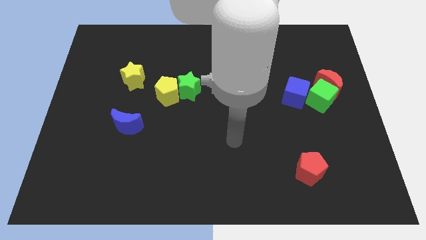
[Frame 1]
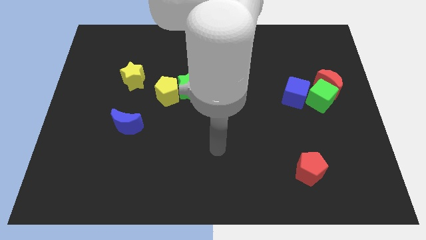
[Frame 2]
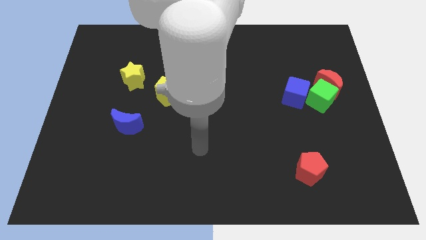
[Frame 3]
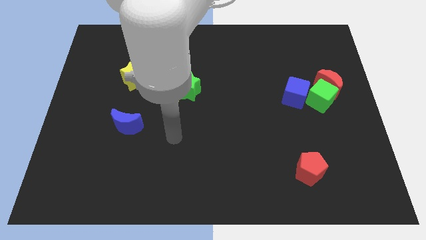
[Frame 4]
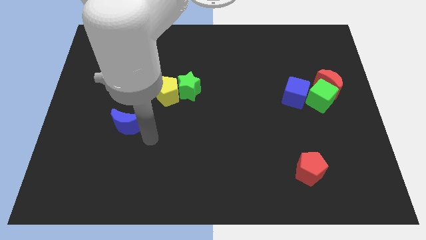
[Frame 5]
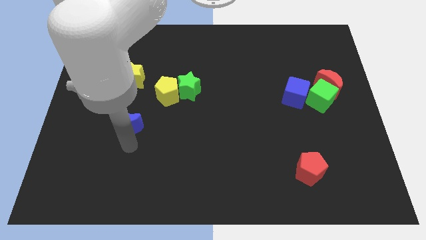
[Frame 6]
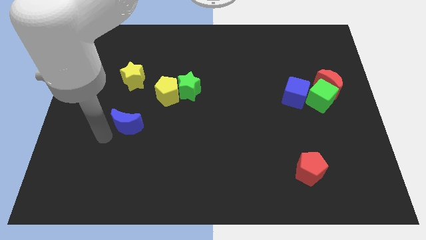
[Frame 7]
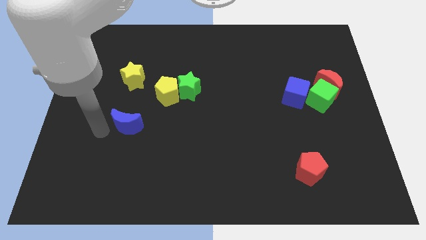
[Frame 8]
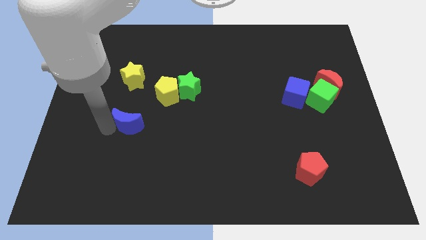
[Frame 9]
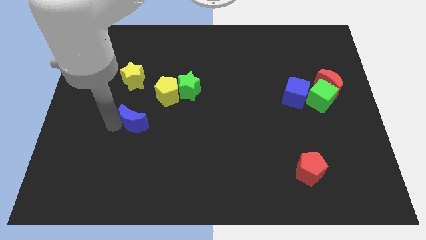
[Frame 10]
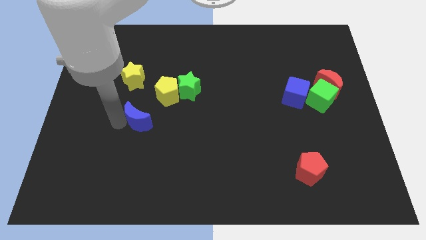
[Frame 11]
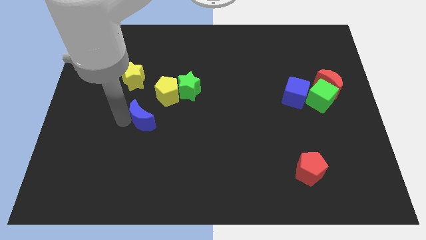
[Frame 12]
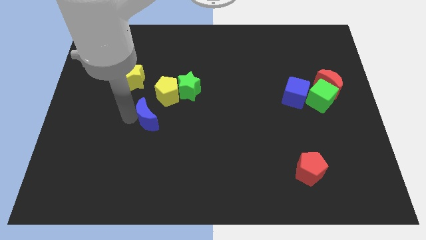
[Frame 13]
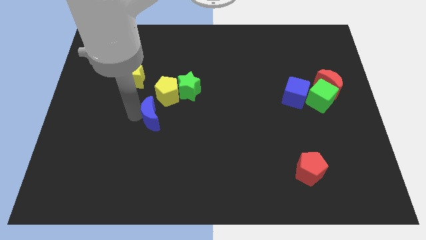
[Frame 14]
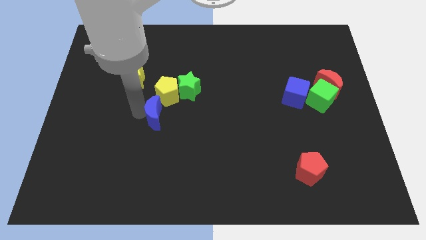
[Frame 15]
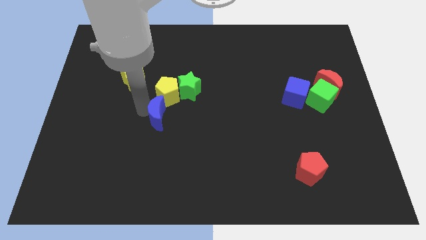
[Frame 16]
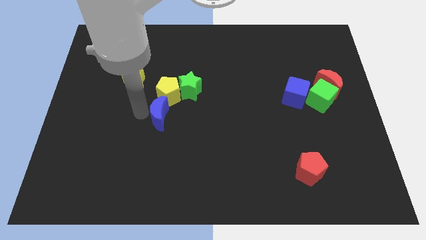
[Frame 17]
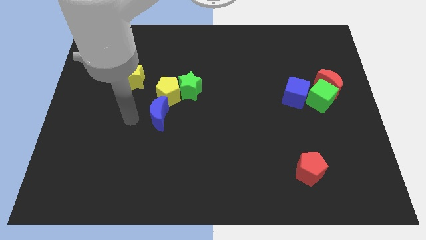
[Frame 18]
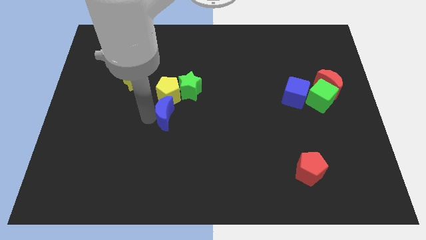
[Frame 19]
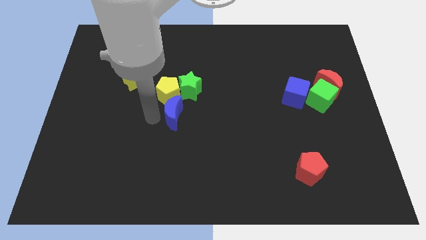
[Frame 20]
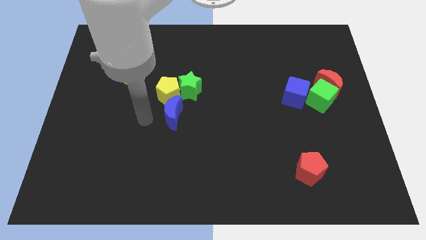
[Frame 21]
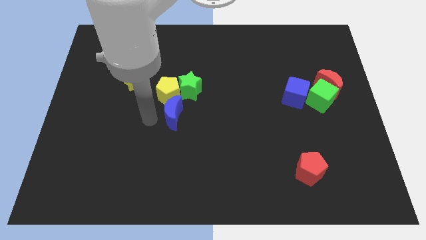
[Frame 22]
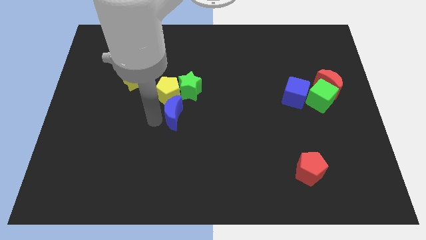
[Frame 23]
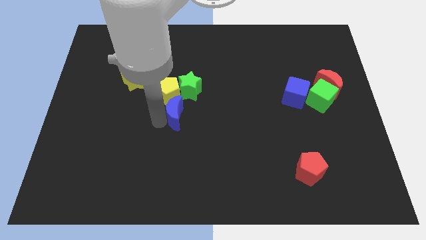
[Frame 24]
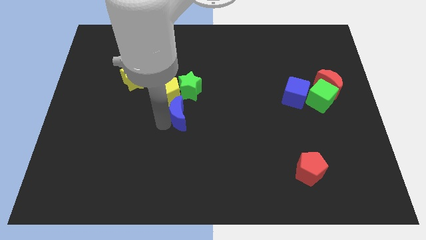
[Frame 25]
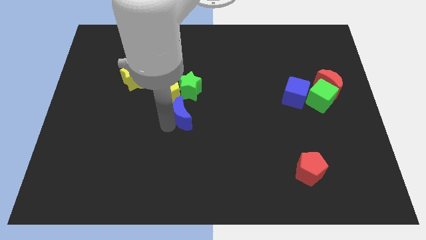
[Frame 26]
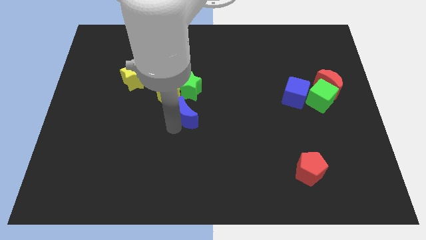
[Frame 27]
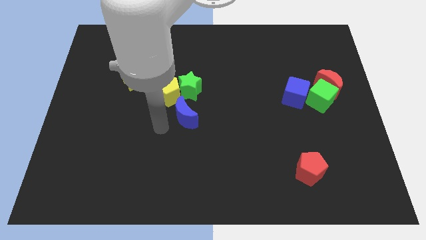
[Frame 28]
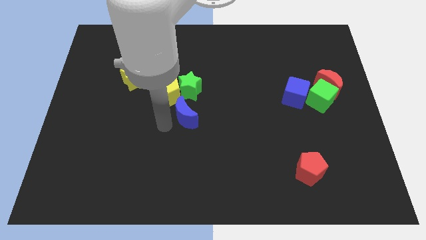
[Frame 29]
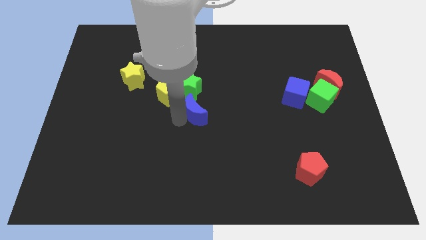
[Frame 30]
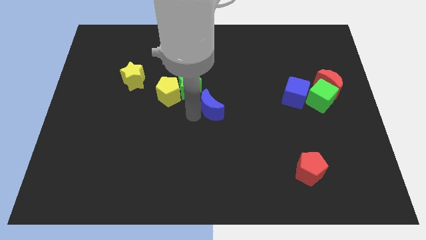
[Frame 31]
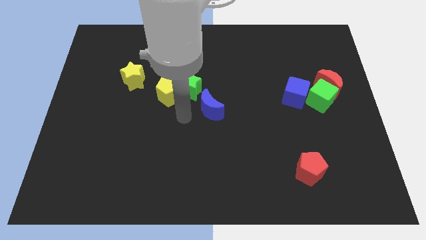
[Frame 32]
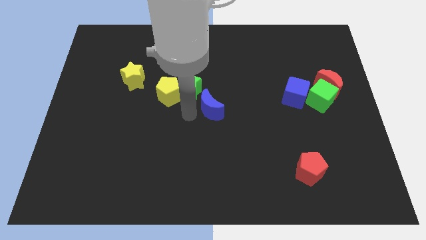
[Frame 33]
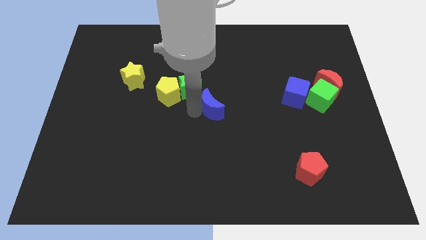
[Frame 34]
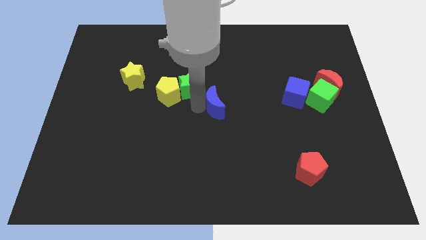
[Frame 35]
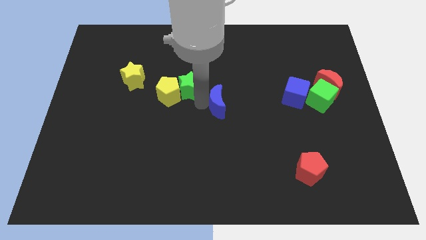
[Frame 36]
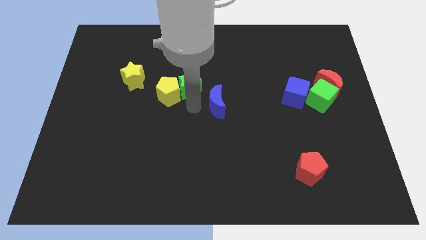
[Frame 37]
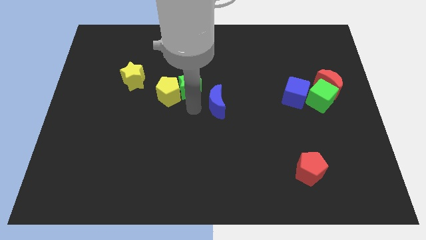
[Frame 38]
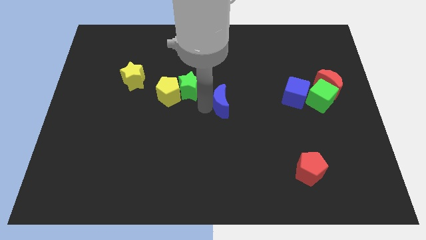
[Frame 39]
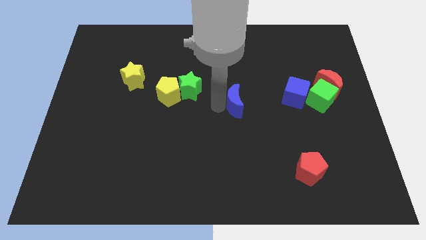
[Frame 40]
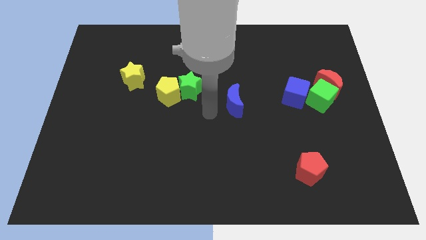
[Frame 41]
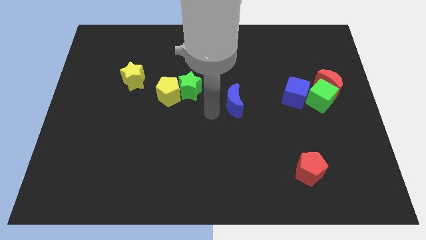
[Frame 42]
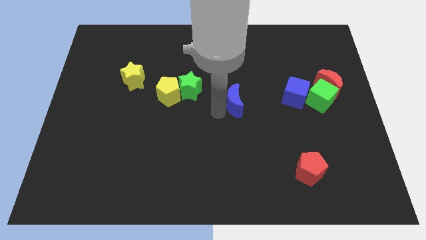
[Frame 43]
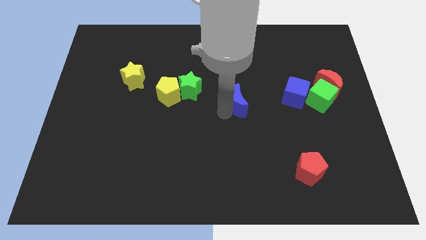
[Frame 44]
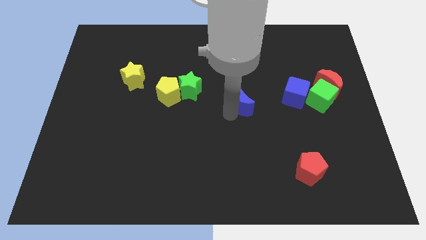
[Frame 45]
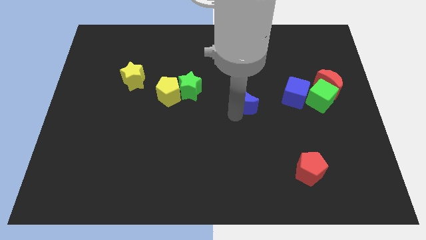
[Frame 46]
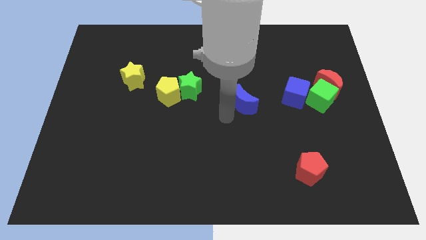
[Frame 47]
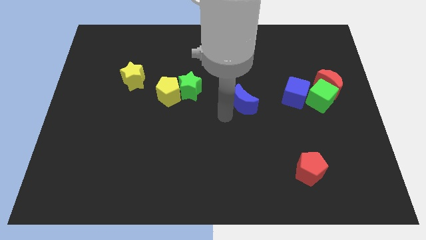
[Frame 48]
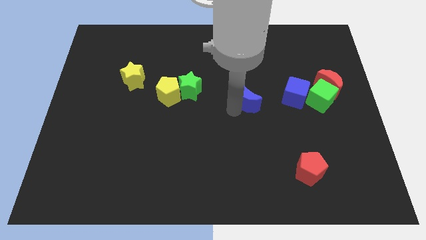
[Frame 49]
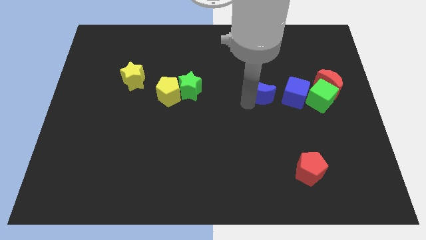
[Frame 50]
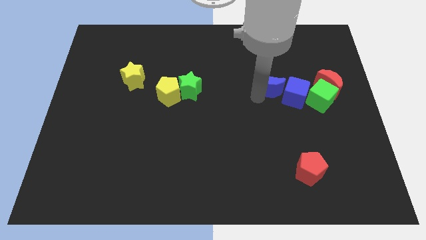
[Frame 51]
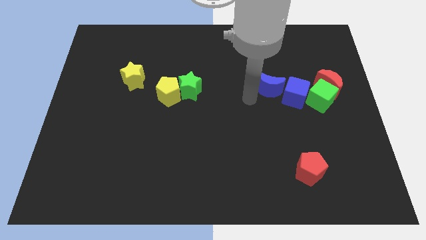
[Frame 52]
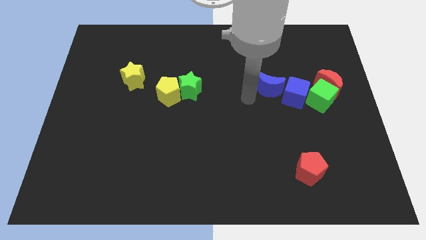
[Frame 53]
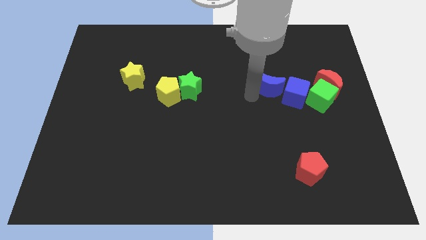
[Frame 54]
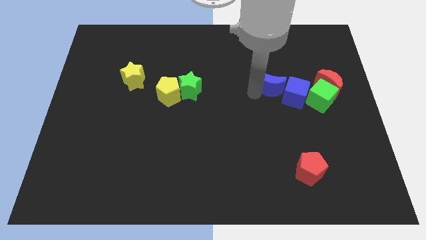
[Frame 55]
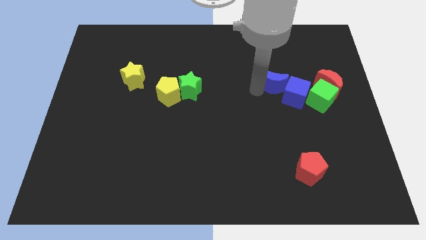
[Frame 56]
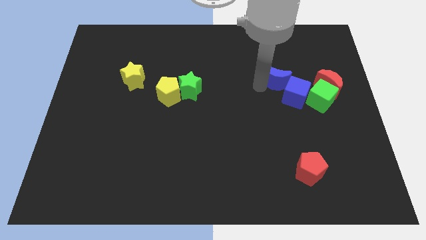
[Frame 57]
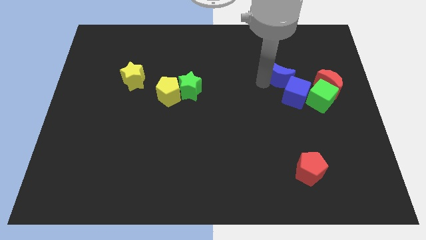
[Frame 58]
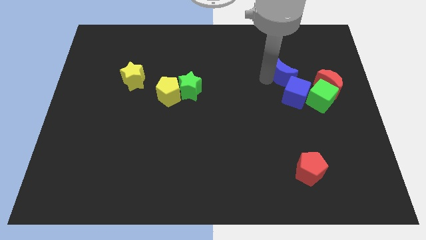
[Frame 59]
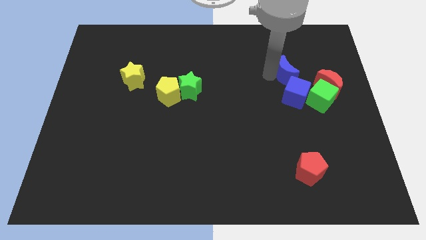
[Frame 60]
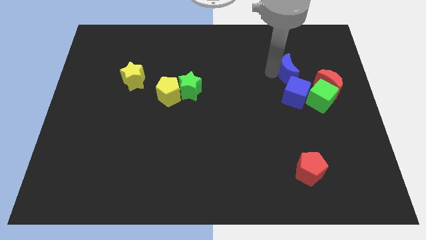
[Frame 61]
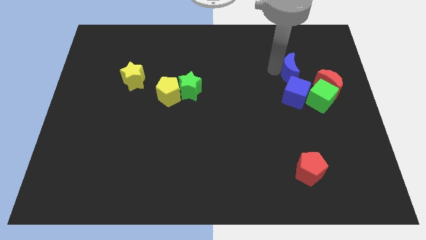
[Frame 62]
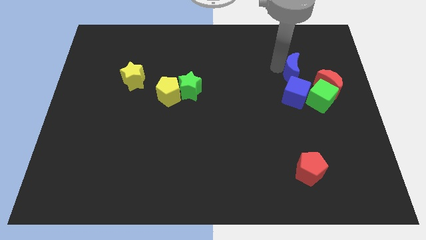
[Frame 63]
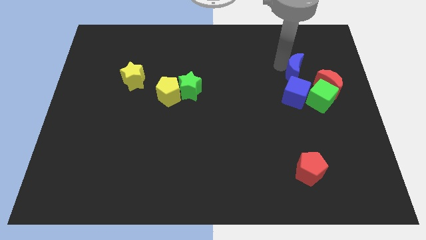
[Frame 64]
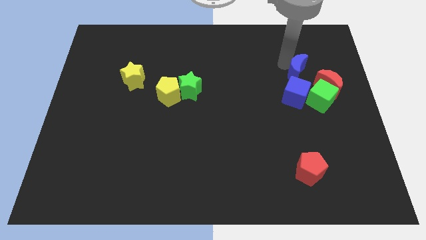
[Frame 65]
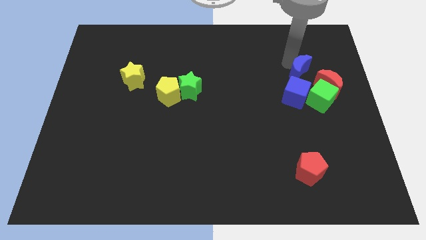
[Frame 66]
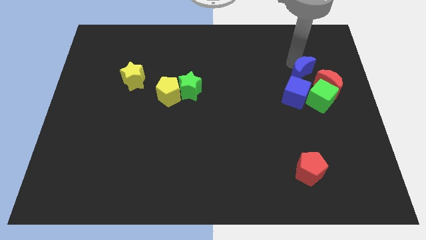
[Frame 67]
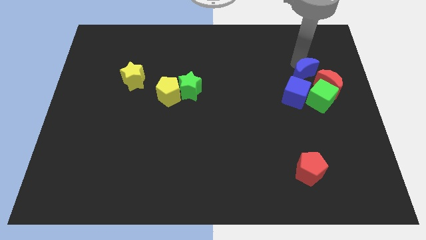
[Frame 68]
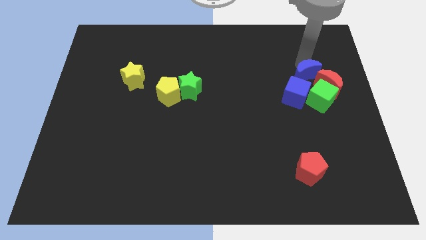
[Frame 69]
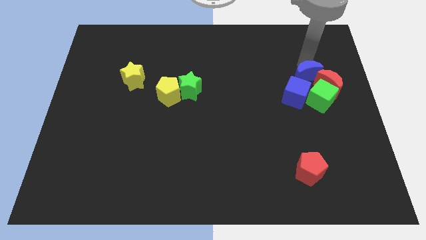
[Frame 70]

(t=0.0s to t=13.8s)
push the blue moon towards the red moon

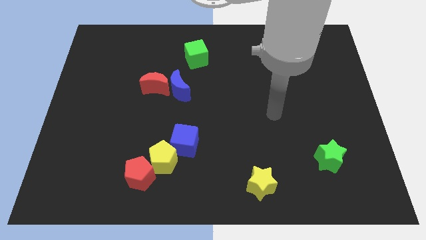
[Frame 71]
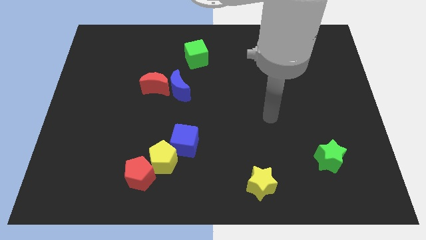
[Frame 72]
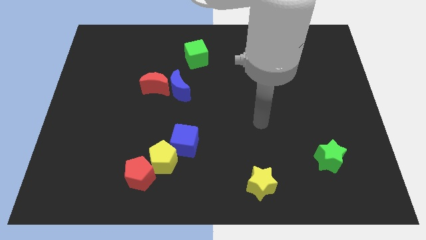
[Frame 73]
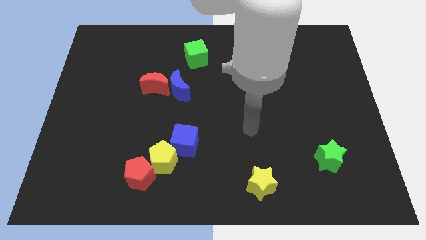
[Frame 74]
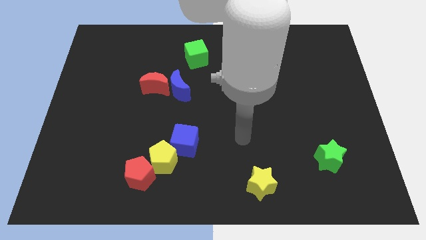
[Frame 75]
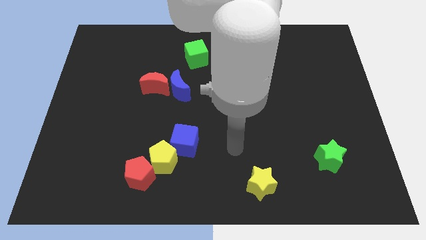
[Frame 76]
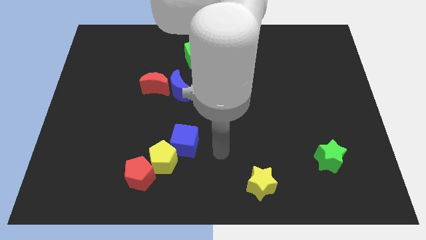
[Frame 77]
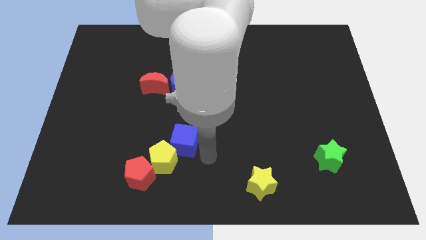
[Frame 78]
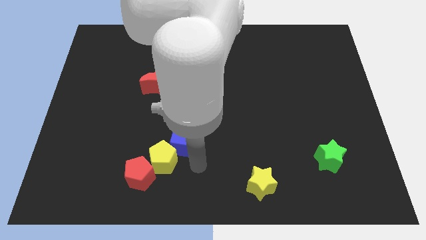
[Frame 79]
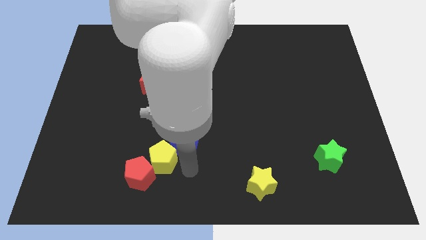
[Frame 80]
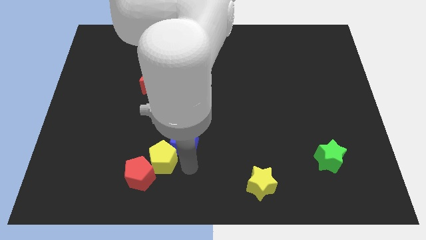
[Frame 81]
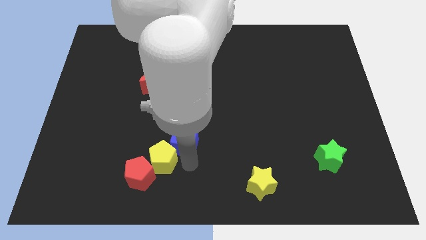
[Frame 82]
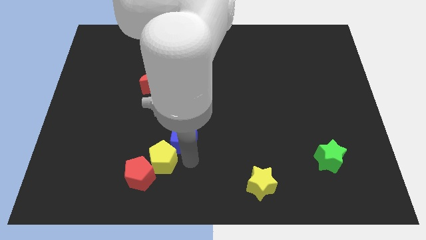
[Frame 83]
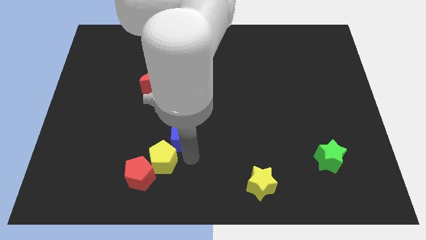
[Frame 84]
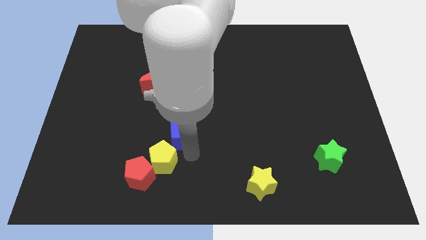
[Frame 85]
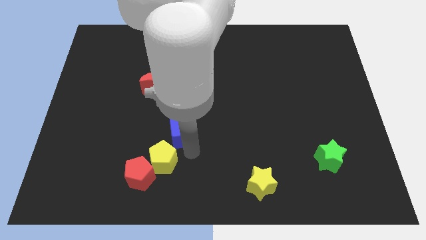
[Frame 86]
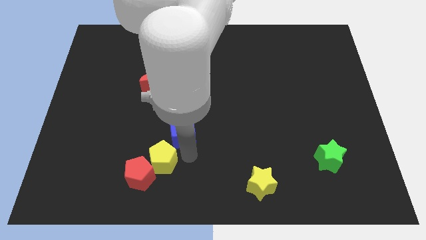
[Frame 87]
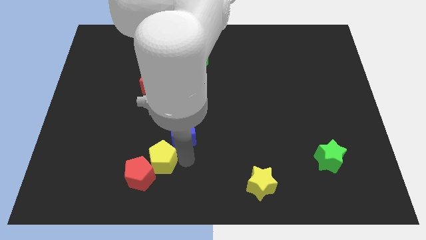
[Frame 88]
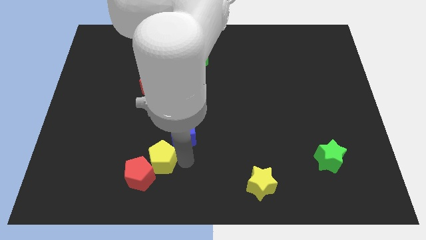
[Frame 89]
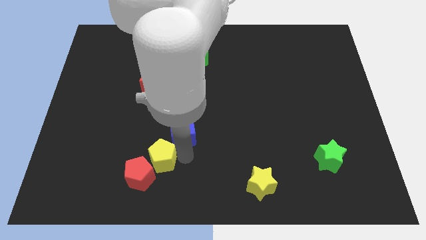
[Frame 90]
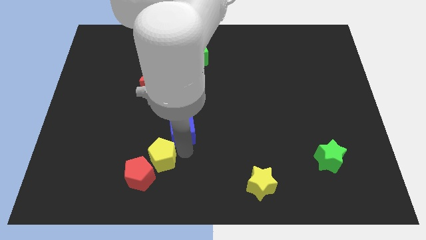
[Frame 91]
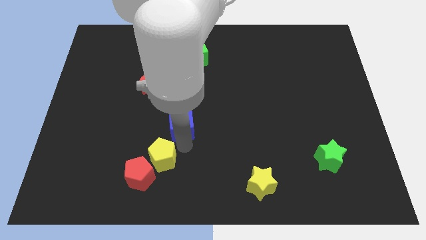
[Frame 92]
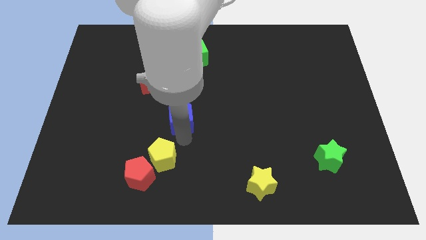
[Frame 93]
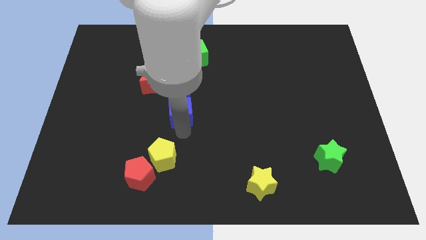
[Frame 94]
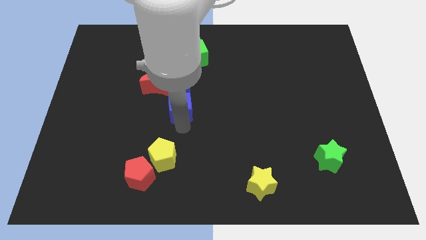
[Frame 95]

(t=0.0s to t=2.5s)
put the blue cube next to the blue moon
